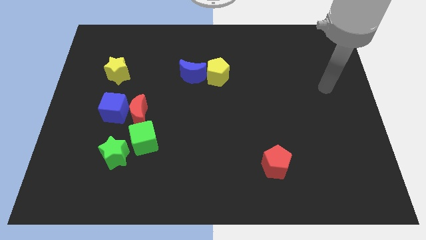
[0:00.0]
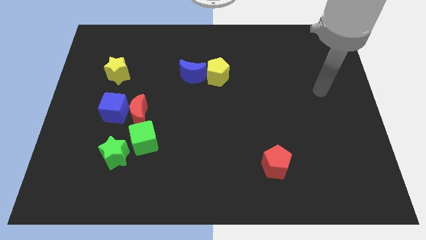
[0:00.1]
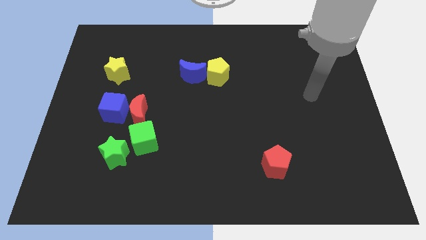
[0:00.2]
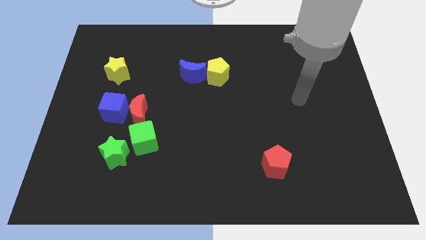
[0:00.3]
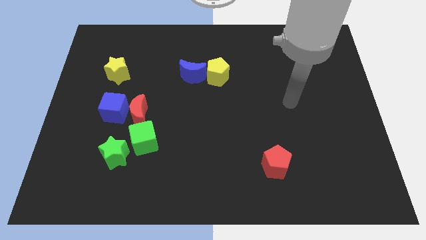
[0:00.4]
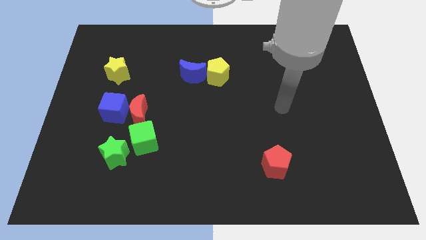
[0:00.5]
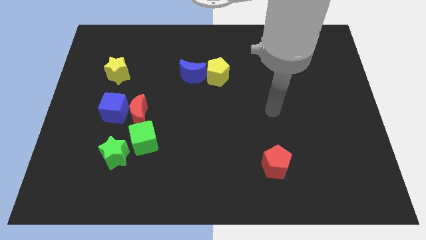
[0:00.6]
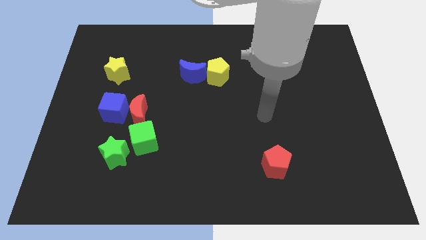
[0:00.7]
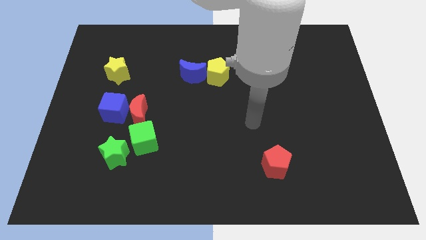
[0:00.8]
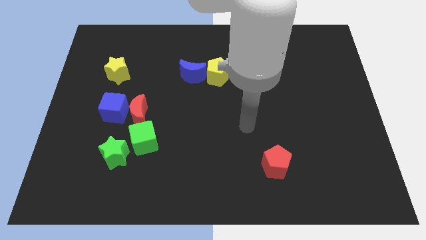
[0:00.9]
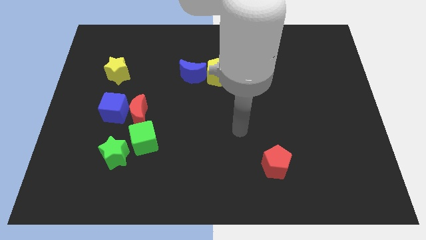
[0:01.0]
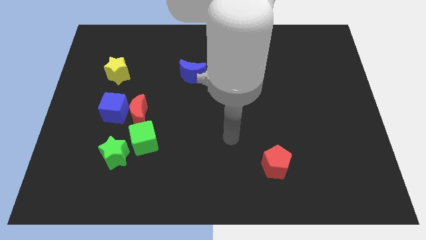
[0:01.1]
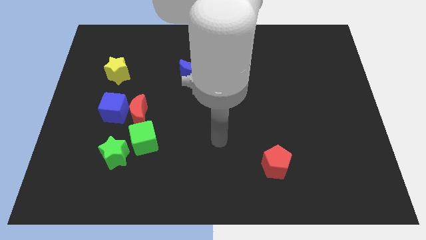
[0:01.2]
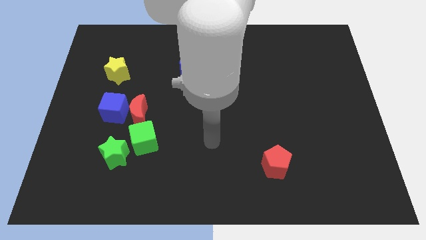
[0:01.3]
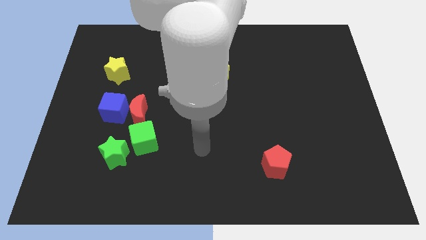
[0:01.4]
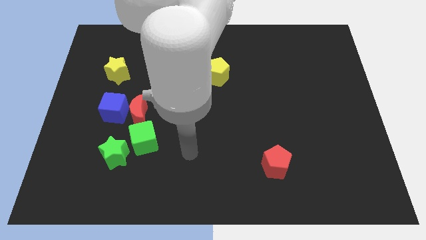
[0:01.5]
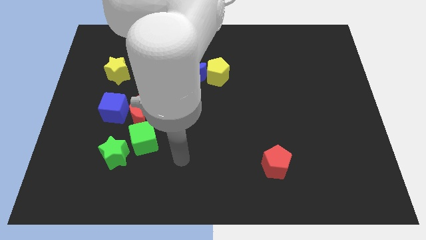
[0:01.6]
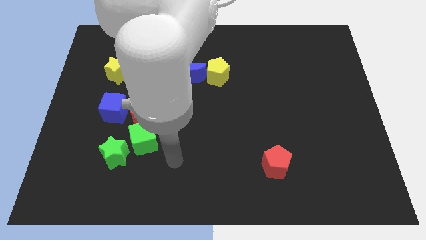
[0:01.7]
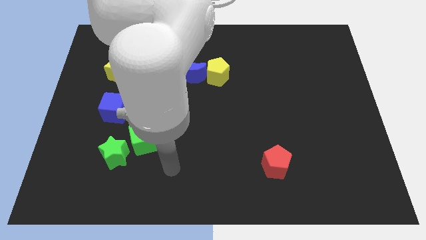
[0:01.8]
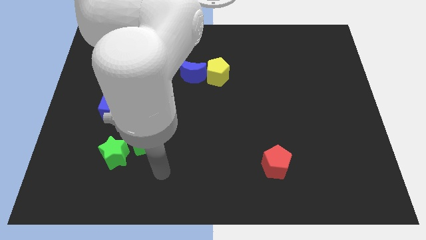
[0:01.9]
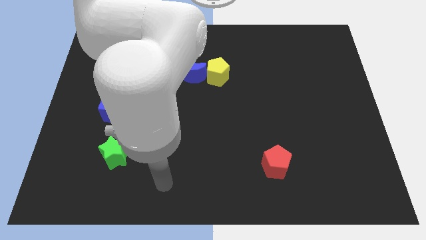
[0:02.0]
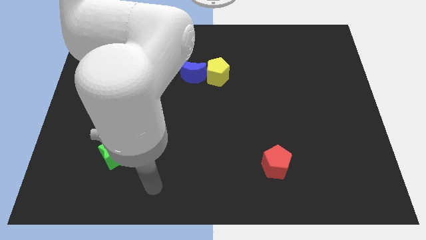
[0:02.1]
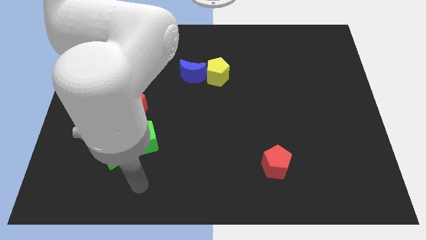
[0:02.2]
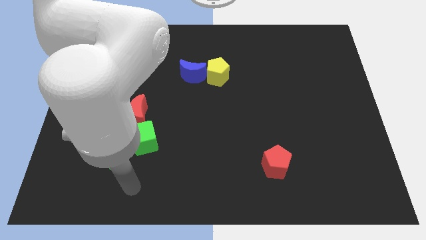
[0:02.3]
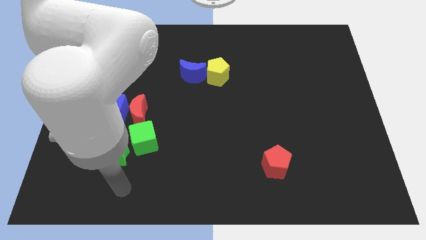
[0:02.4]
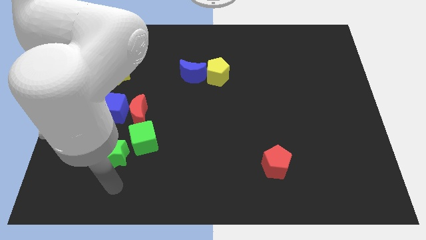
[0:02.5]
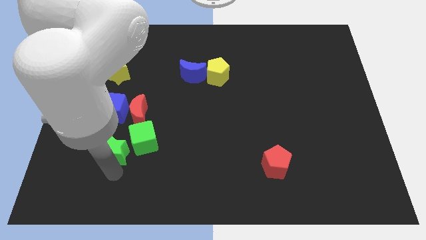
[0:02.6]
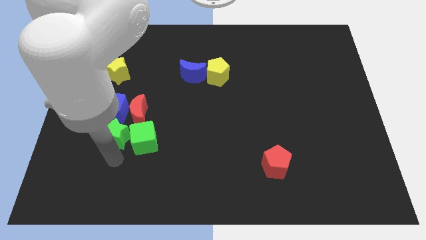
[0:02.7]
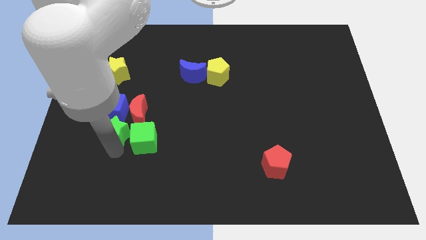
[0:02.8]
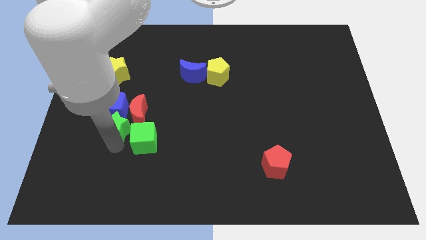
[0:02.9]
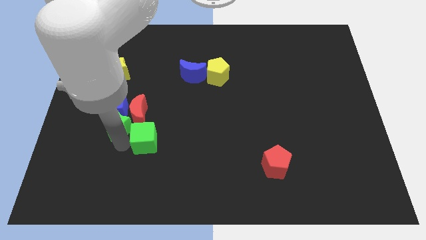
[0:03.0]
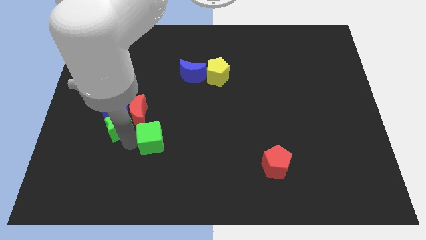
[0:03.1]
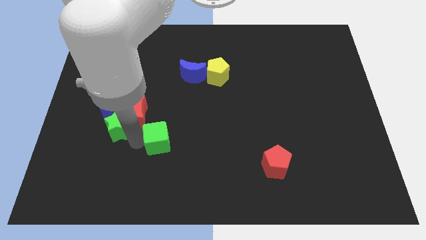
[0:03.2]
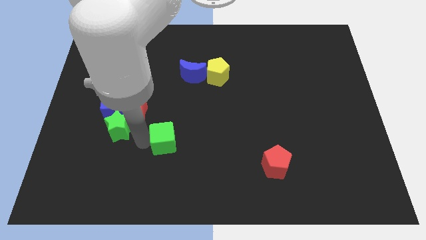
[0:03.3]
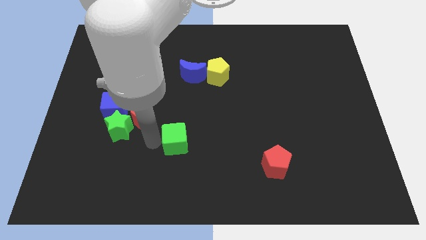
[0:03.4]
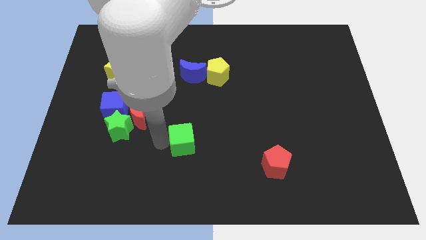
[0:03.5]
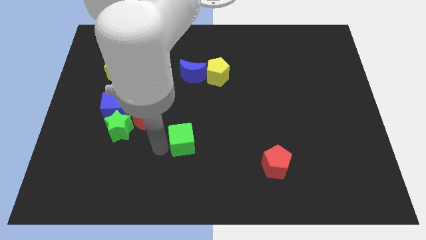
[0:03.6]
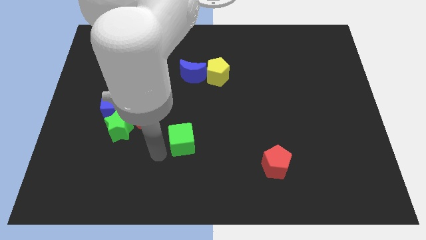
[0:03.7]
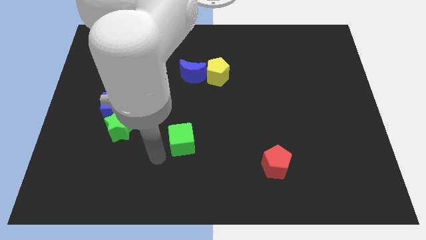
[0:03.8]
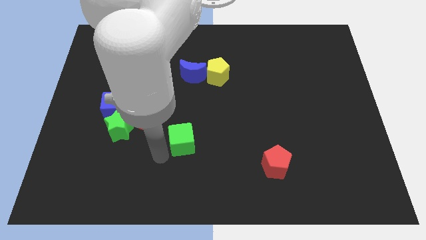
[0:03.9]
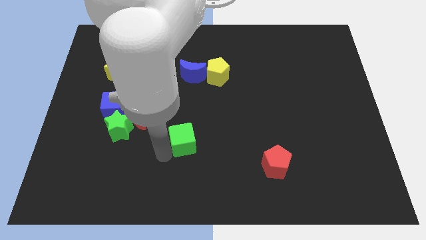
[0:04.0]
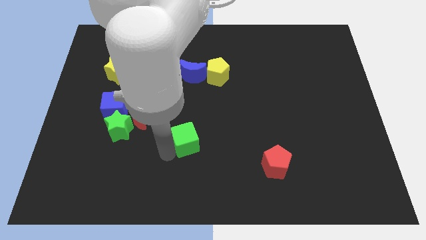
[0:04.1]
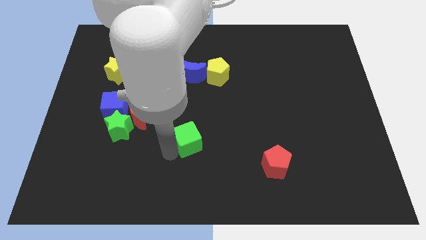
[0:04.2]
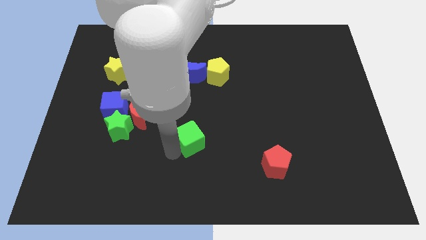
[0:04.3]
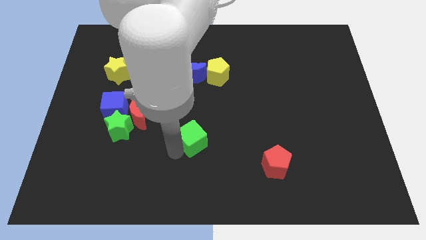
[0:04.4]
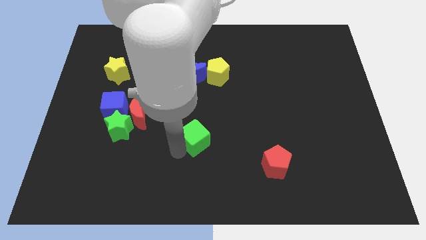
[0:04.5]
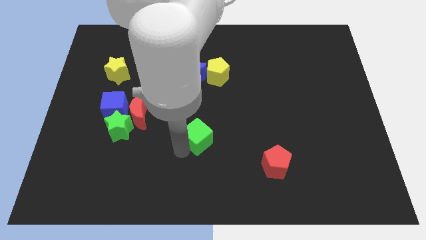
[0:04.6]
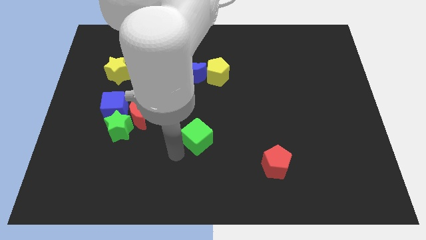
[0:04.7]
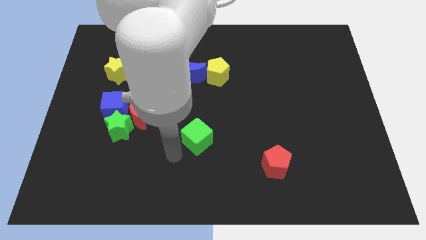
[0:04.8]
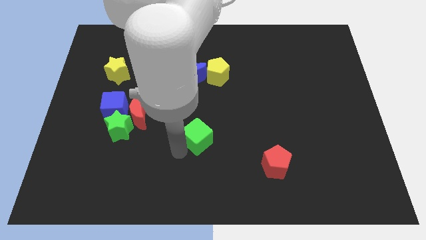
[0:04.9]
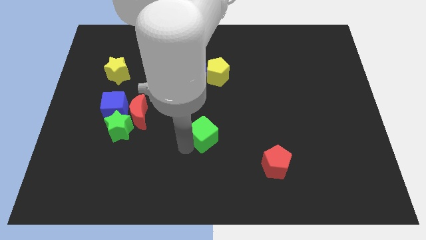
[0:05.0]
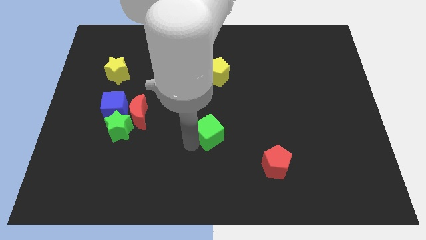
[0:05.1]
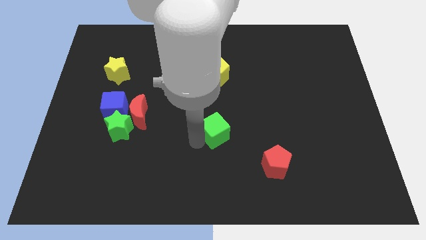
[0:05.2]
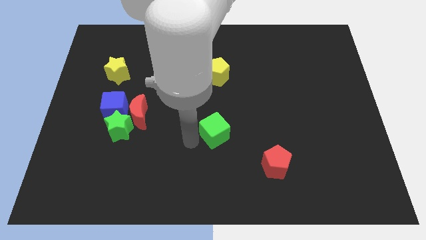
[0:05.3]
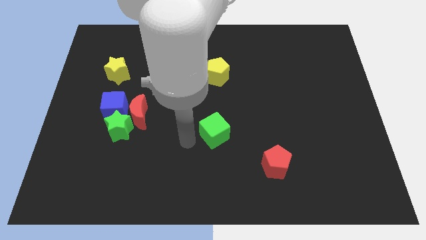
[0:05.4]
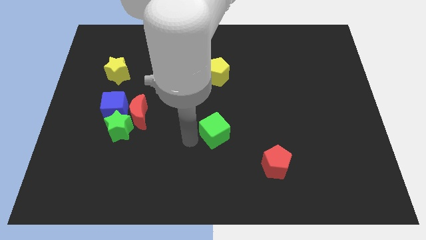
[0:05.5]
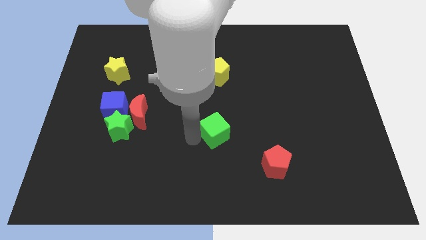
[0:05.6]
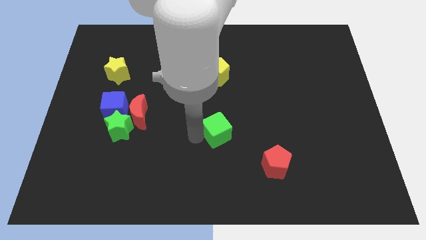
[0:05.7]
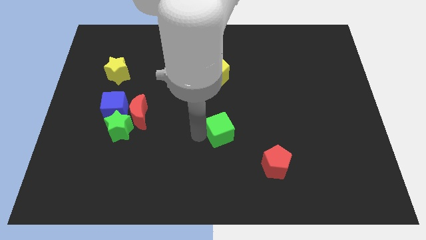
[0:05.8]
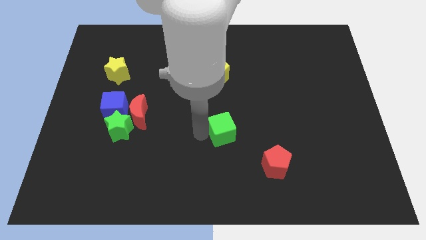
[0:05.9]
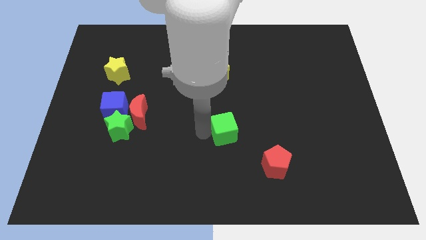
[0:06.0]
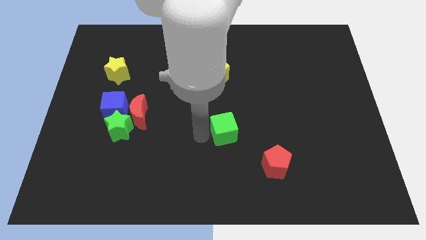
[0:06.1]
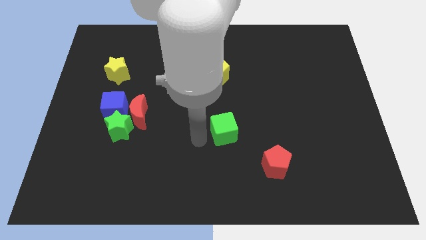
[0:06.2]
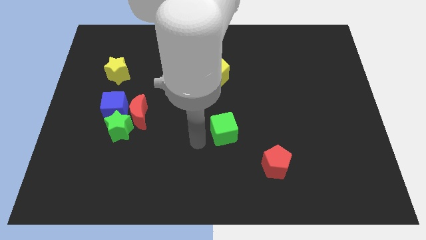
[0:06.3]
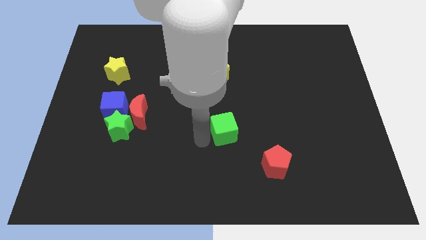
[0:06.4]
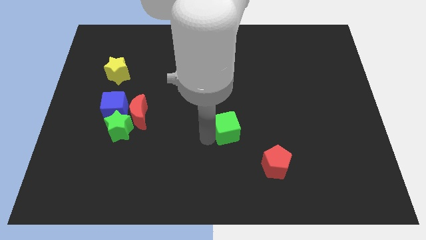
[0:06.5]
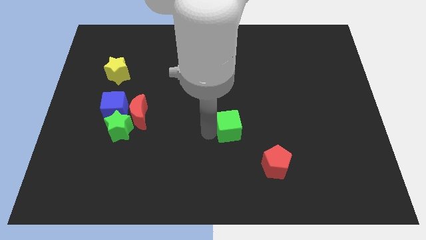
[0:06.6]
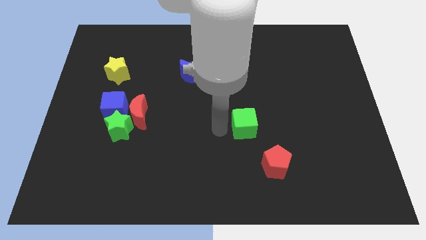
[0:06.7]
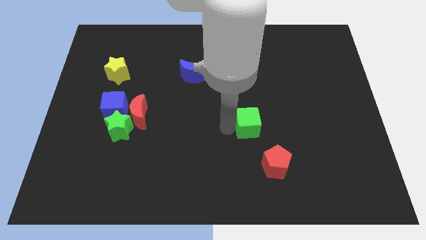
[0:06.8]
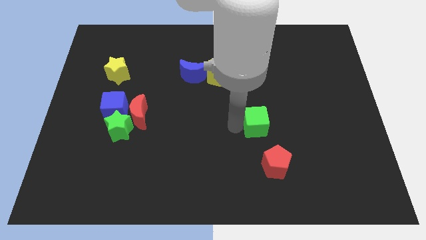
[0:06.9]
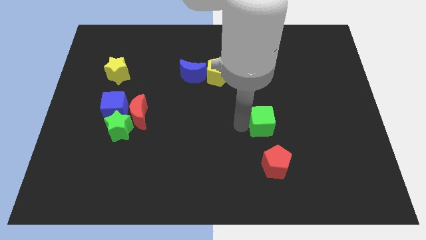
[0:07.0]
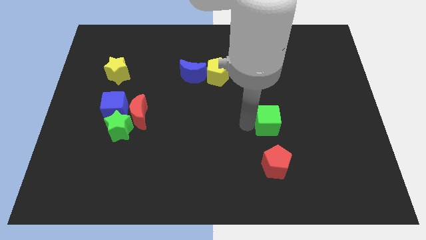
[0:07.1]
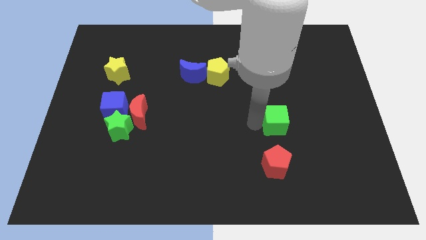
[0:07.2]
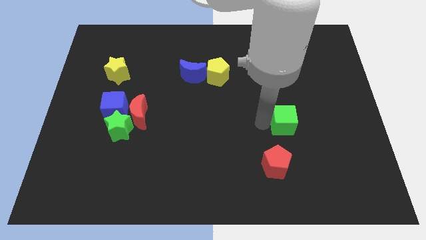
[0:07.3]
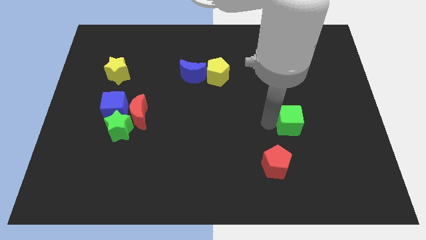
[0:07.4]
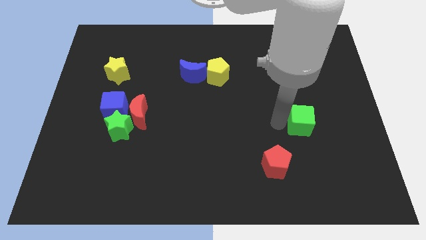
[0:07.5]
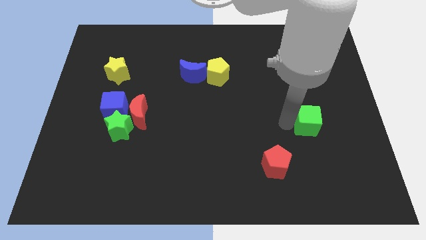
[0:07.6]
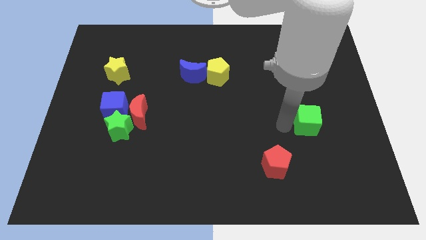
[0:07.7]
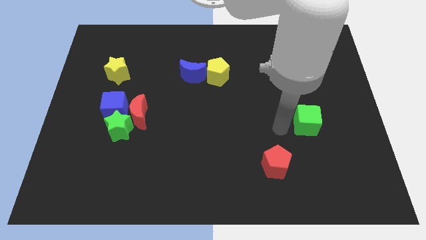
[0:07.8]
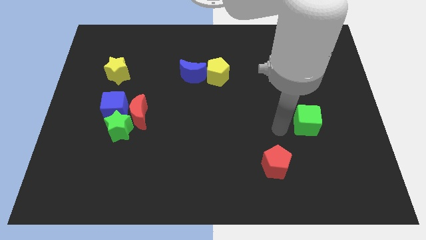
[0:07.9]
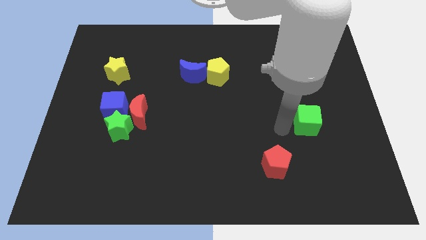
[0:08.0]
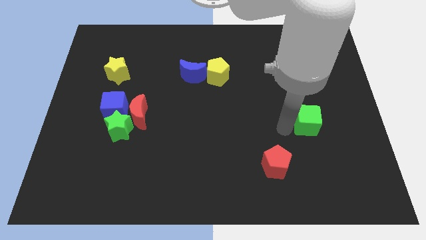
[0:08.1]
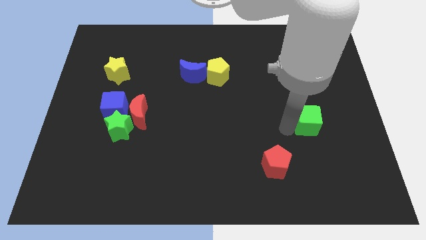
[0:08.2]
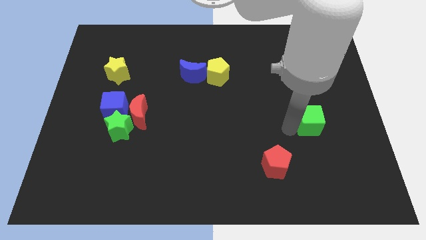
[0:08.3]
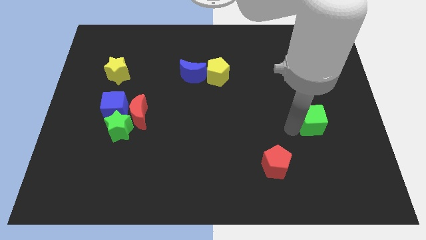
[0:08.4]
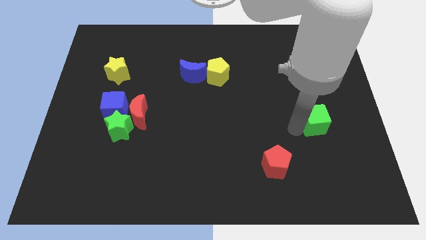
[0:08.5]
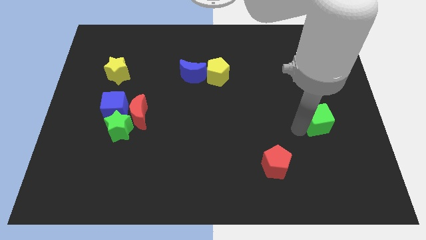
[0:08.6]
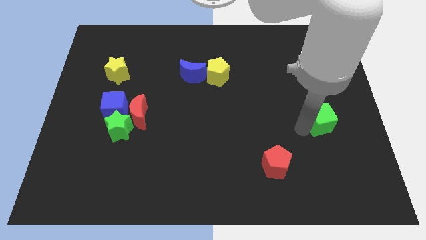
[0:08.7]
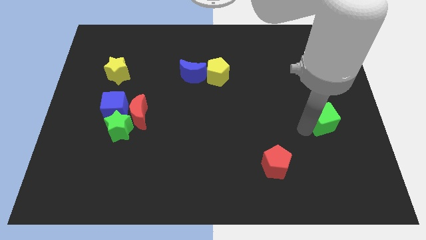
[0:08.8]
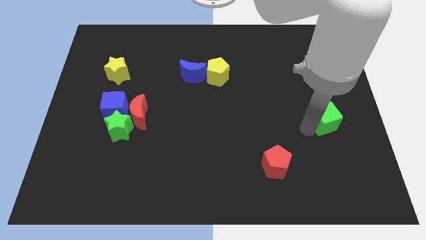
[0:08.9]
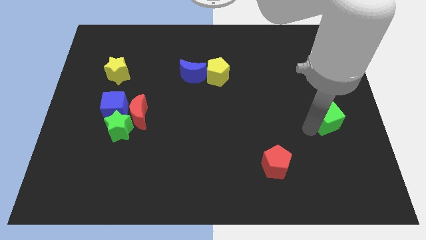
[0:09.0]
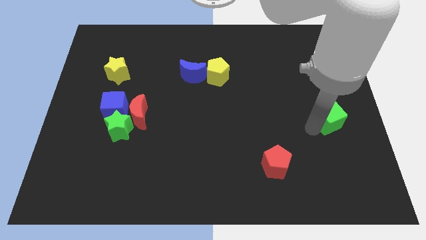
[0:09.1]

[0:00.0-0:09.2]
push the green cube to the right side
